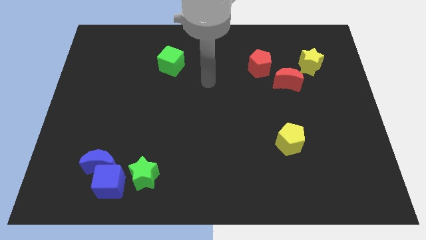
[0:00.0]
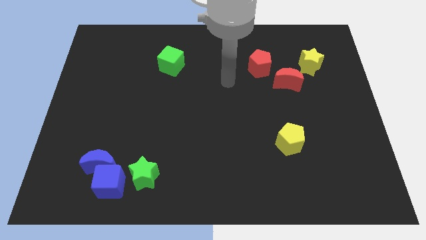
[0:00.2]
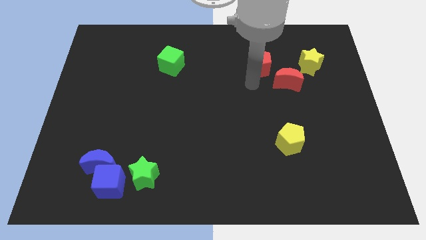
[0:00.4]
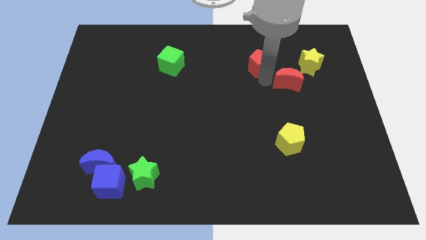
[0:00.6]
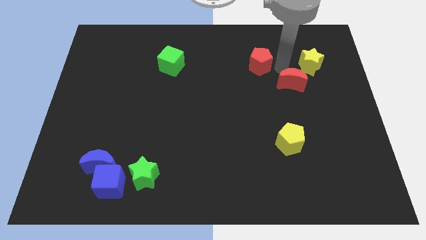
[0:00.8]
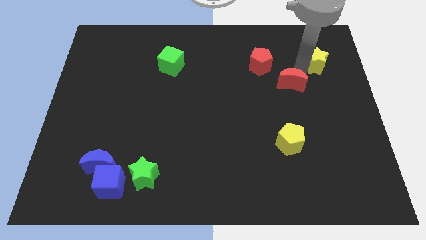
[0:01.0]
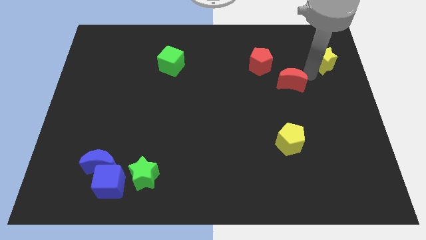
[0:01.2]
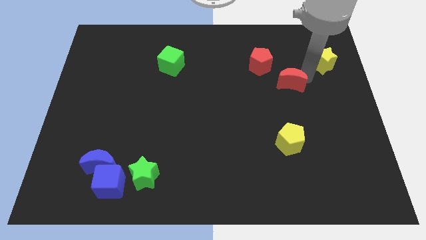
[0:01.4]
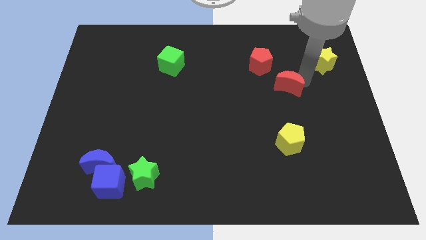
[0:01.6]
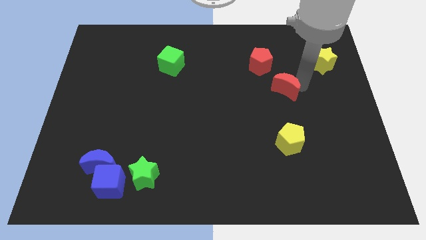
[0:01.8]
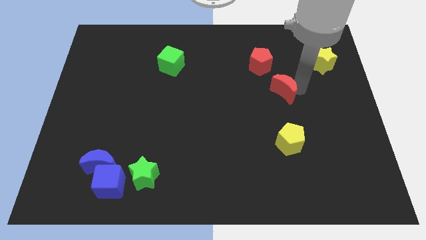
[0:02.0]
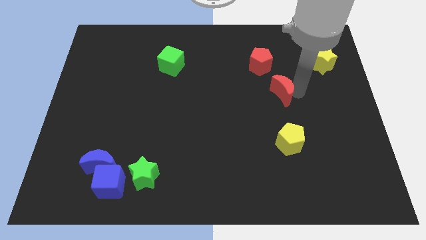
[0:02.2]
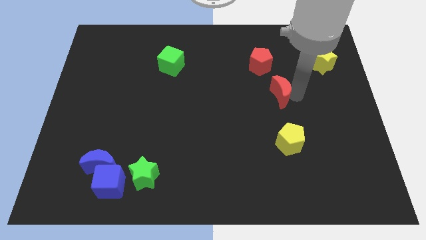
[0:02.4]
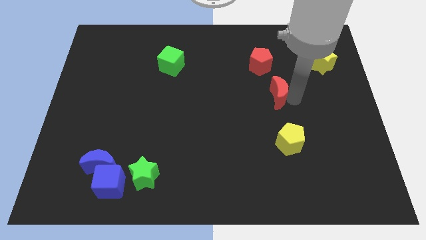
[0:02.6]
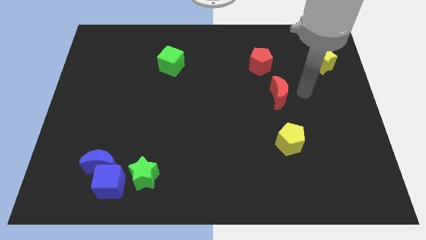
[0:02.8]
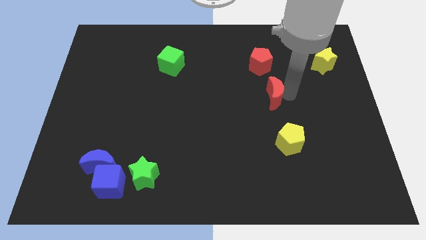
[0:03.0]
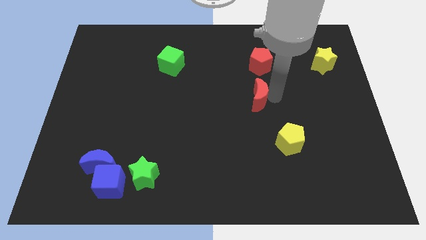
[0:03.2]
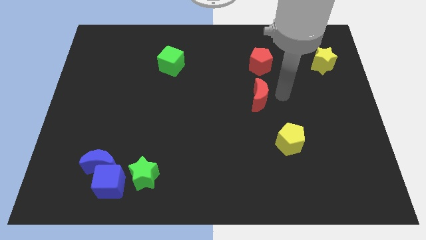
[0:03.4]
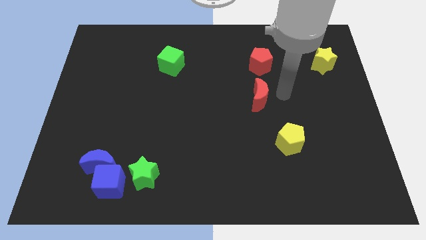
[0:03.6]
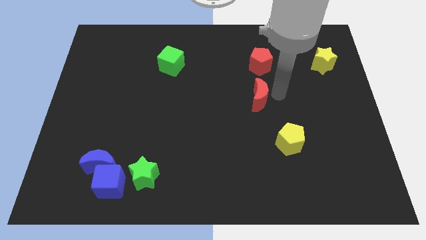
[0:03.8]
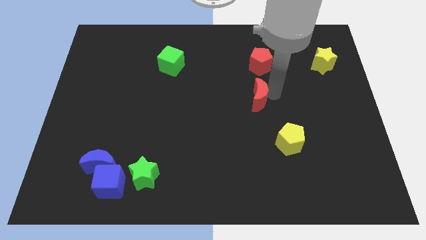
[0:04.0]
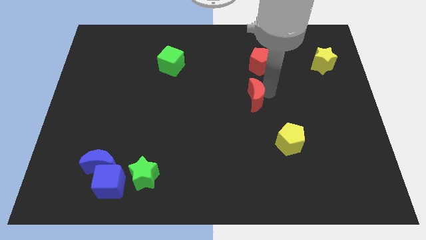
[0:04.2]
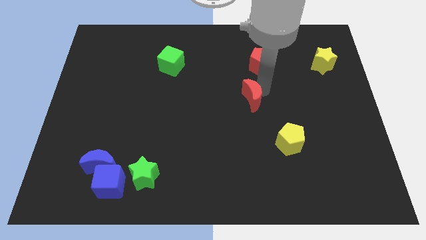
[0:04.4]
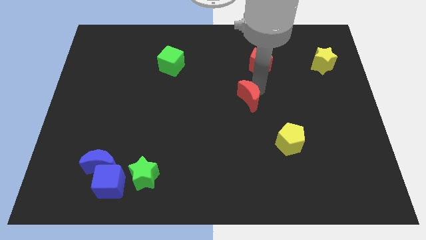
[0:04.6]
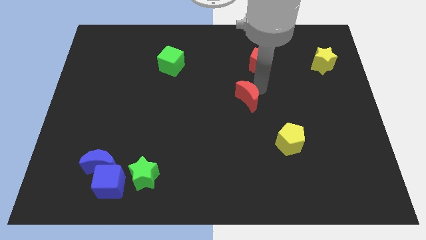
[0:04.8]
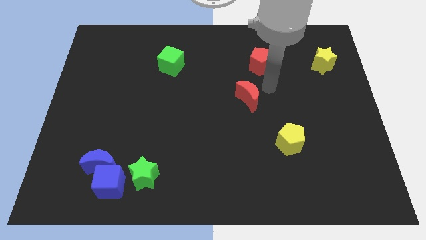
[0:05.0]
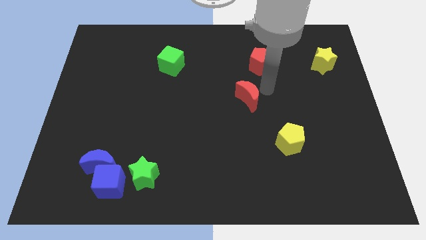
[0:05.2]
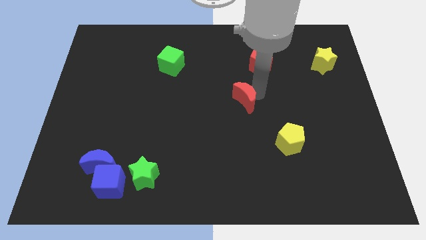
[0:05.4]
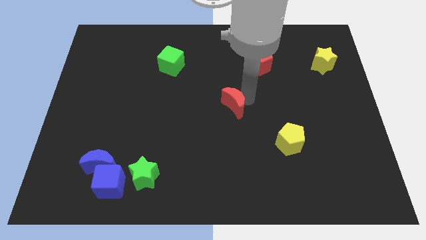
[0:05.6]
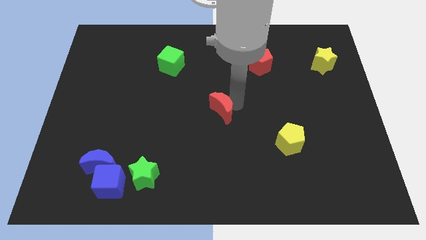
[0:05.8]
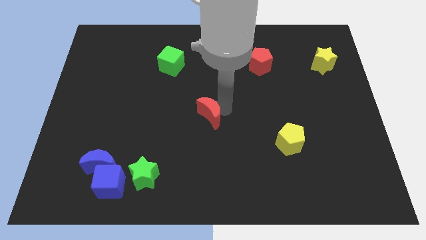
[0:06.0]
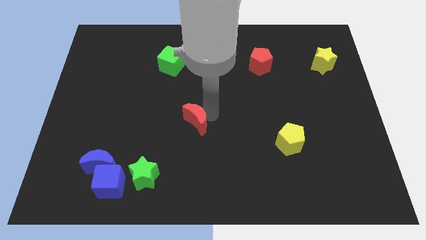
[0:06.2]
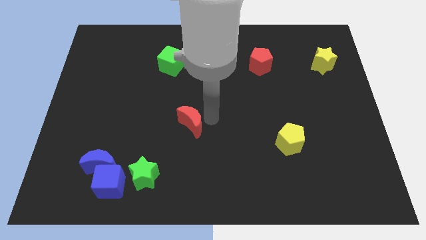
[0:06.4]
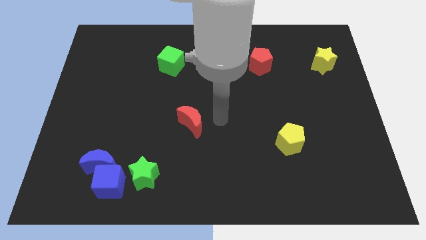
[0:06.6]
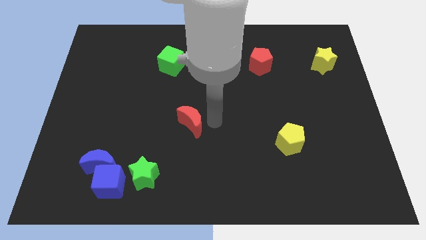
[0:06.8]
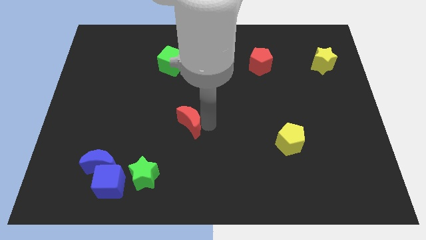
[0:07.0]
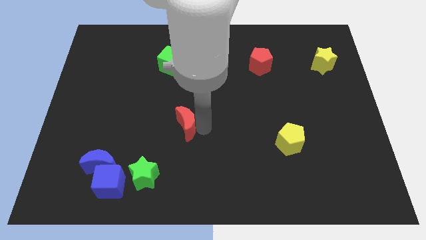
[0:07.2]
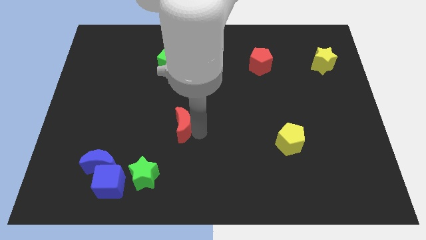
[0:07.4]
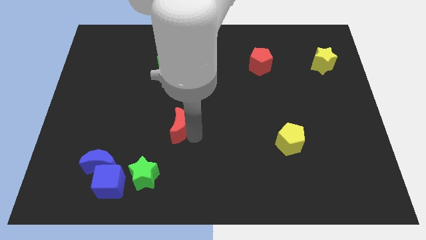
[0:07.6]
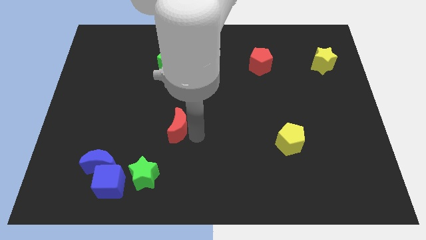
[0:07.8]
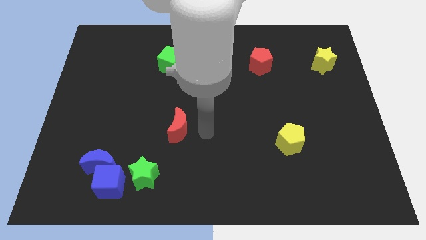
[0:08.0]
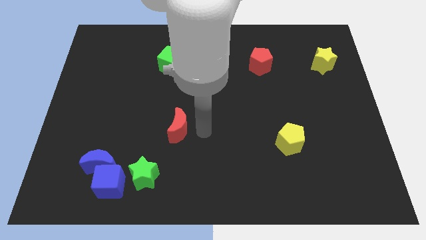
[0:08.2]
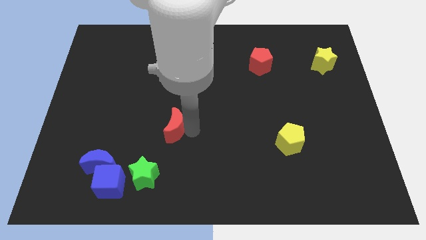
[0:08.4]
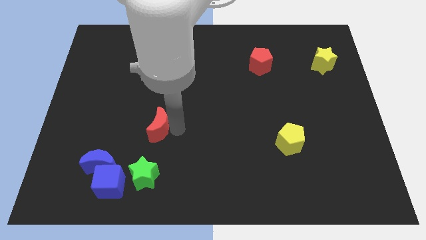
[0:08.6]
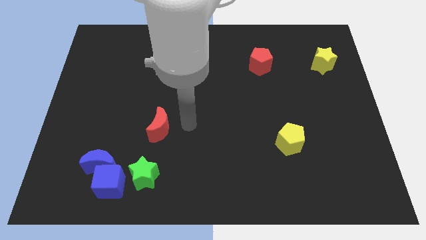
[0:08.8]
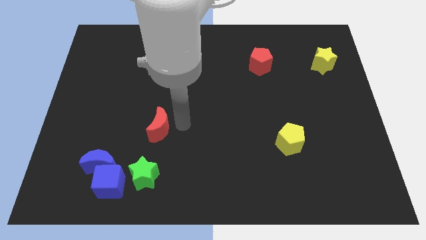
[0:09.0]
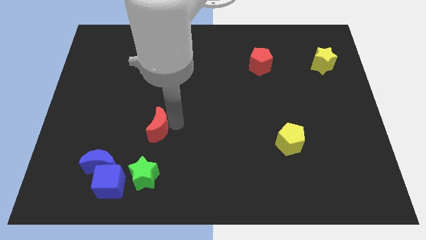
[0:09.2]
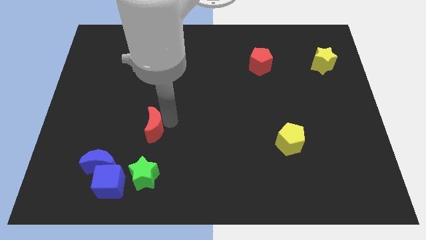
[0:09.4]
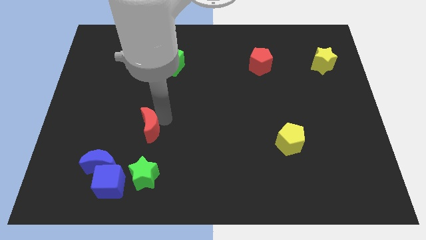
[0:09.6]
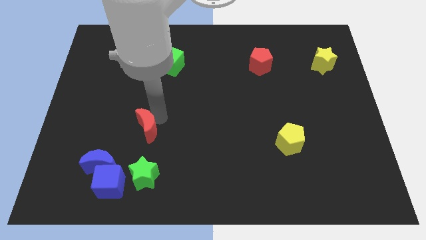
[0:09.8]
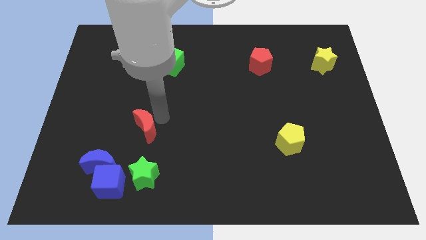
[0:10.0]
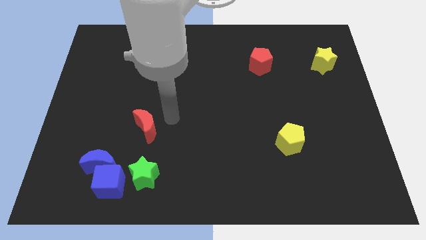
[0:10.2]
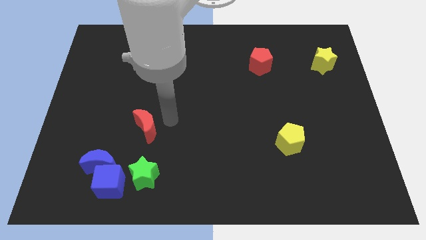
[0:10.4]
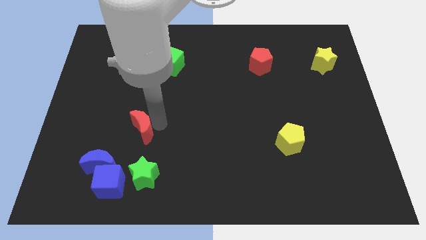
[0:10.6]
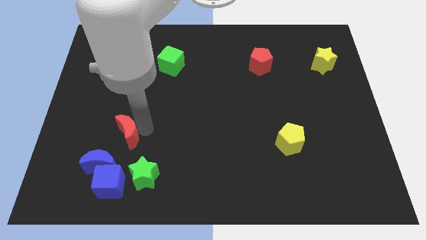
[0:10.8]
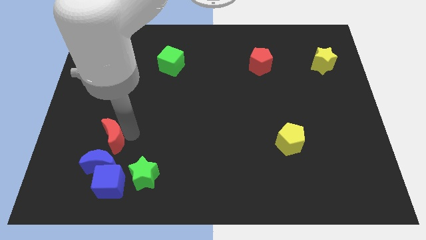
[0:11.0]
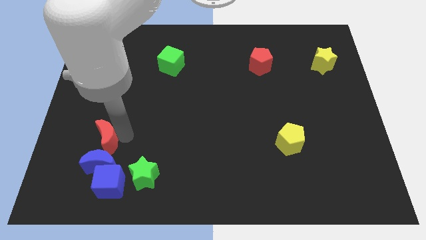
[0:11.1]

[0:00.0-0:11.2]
move the red moon to the top left of the blue moon

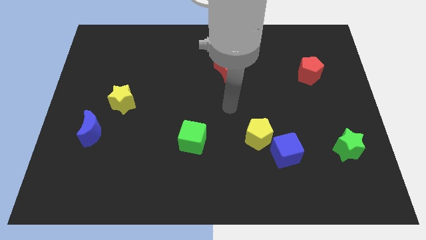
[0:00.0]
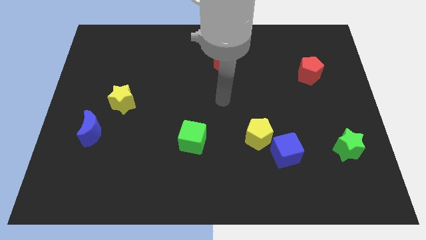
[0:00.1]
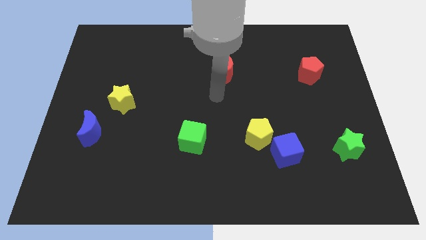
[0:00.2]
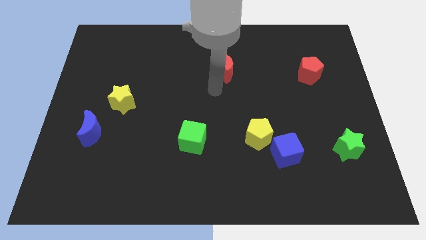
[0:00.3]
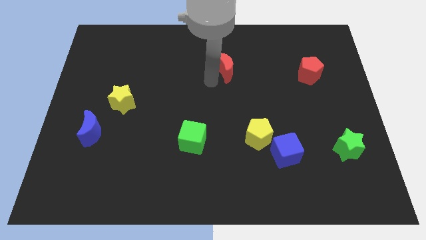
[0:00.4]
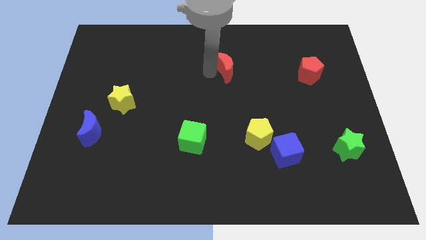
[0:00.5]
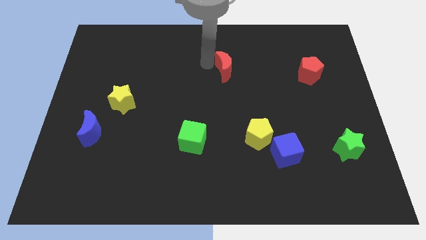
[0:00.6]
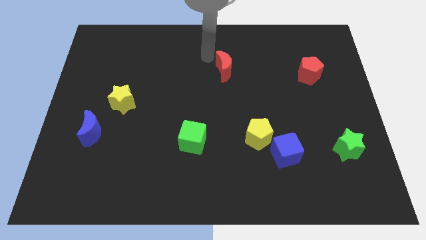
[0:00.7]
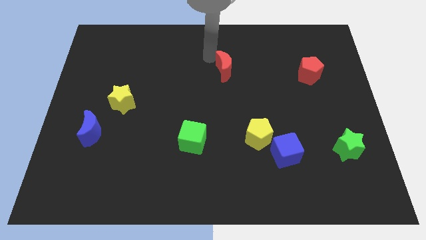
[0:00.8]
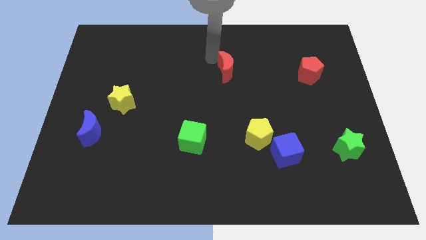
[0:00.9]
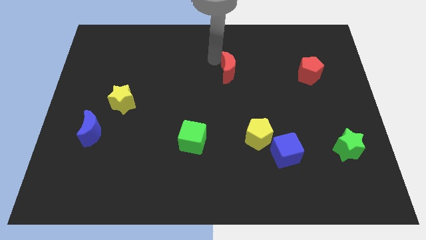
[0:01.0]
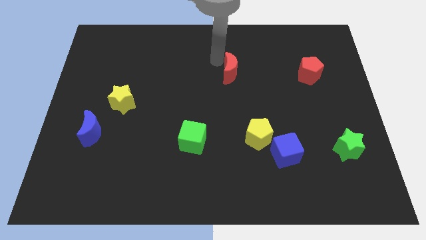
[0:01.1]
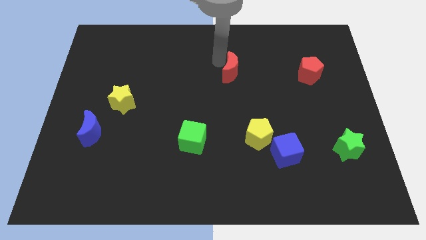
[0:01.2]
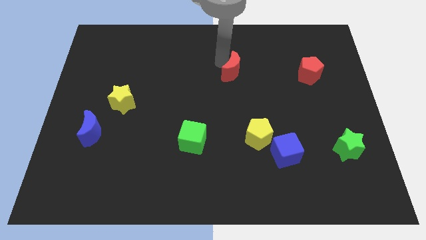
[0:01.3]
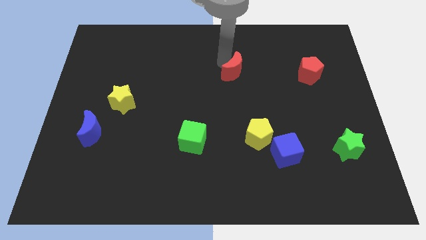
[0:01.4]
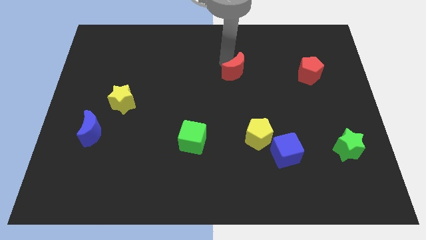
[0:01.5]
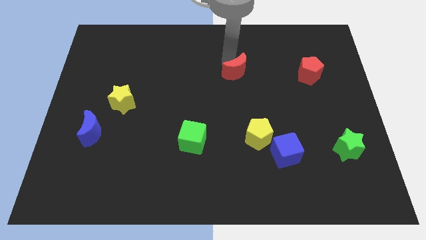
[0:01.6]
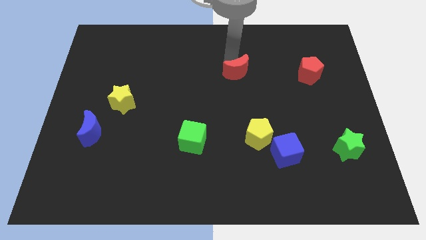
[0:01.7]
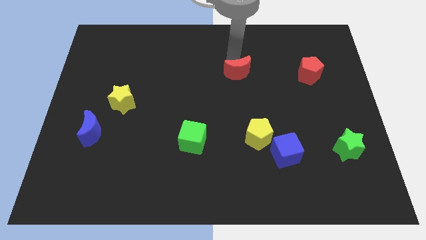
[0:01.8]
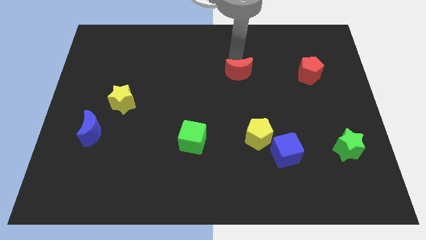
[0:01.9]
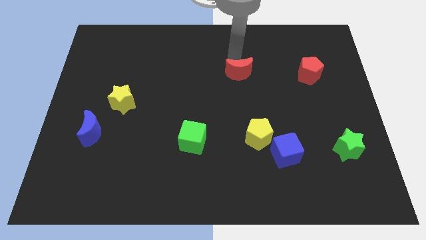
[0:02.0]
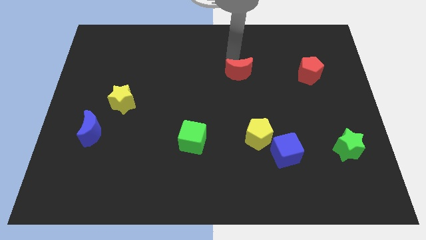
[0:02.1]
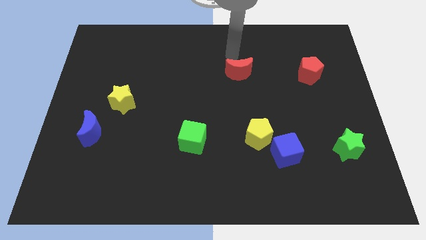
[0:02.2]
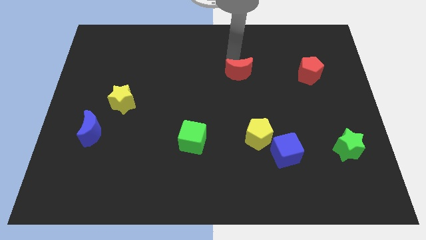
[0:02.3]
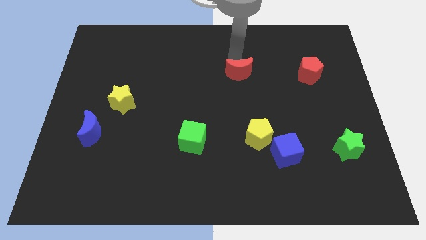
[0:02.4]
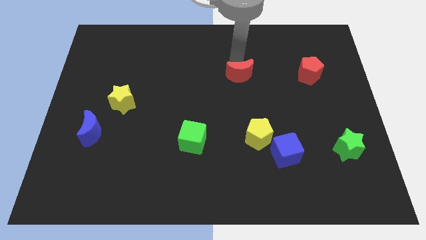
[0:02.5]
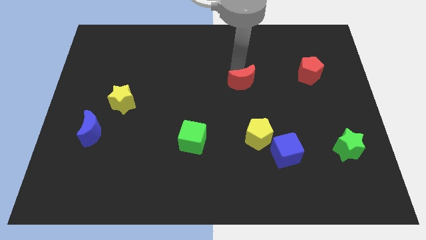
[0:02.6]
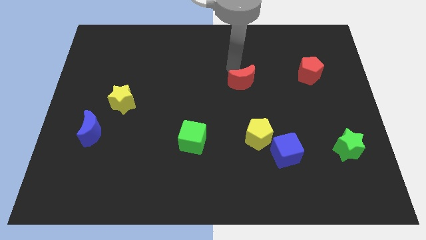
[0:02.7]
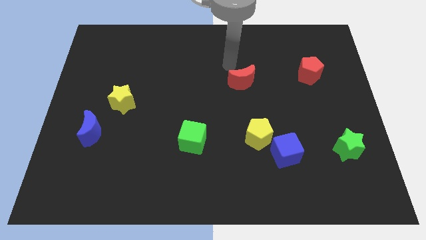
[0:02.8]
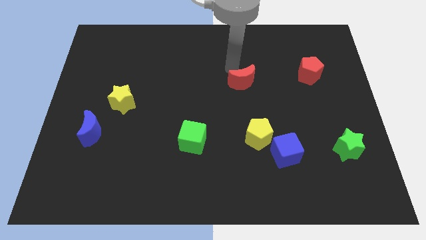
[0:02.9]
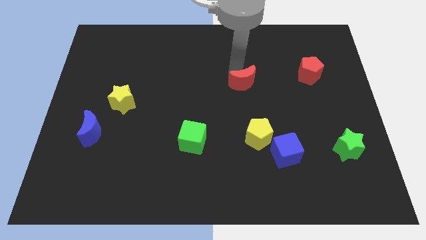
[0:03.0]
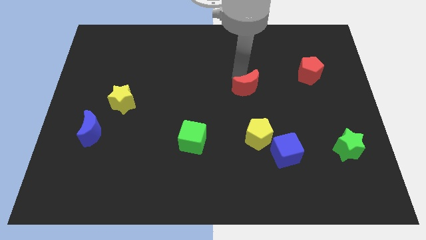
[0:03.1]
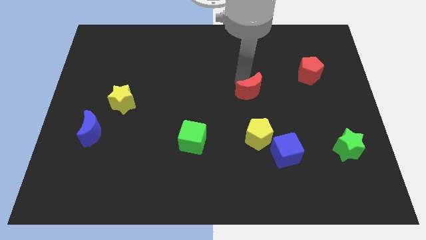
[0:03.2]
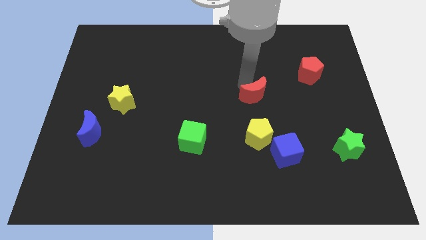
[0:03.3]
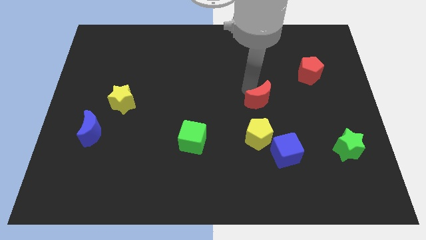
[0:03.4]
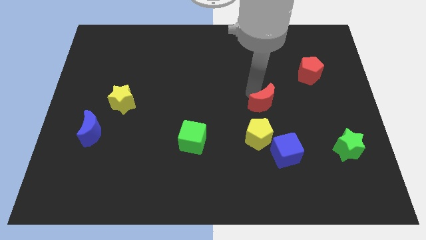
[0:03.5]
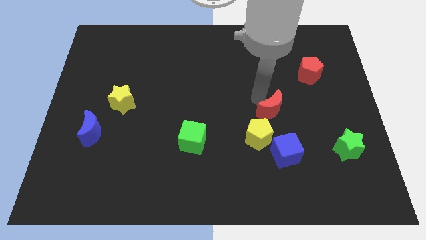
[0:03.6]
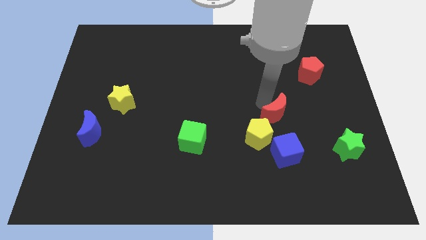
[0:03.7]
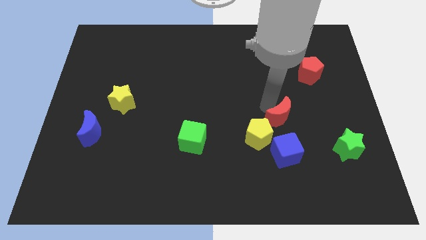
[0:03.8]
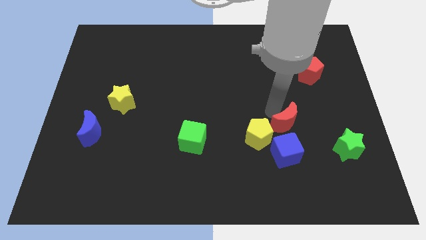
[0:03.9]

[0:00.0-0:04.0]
move the red moon just right of the yellow pentagon
